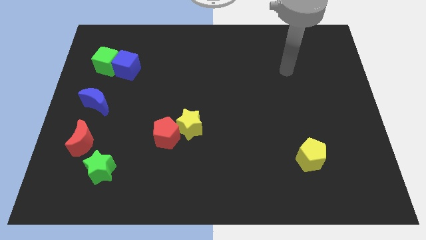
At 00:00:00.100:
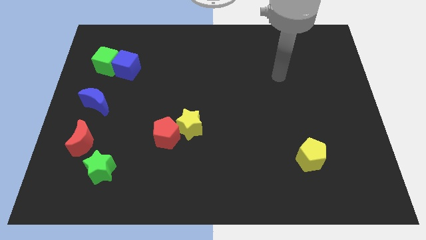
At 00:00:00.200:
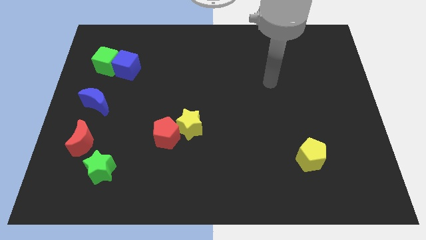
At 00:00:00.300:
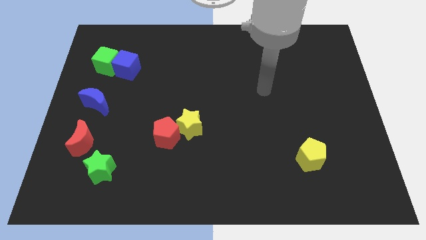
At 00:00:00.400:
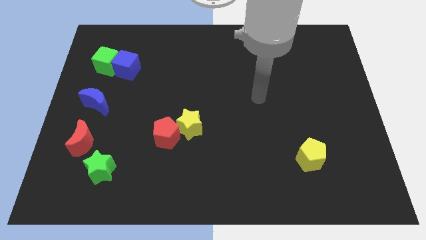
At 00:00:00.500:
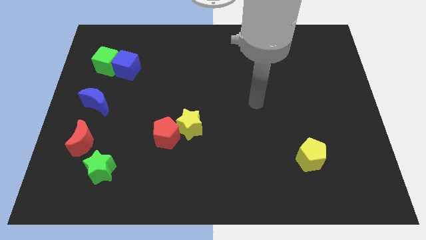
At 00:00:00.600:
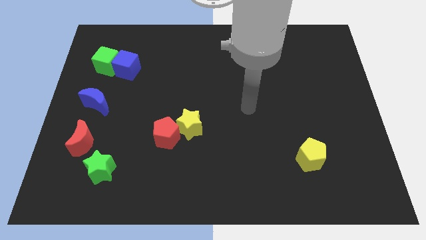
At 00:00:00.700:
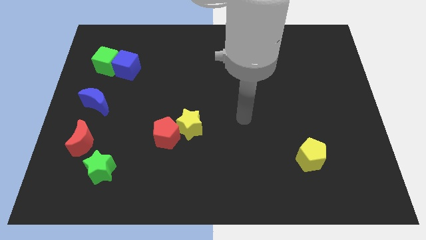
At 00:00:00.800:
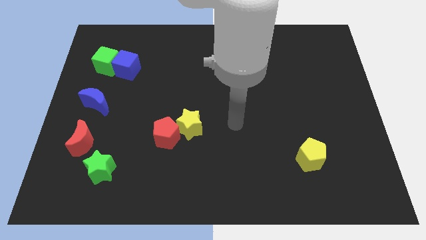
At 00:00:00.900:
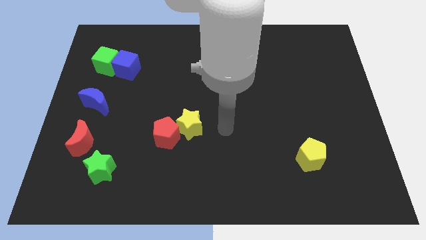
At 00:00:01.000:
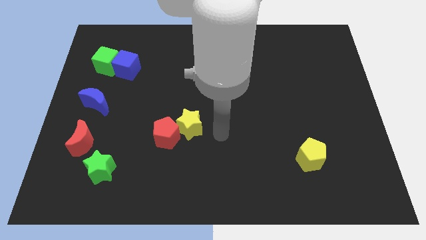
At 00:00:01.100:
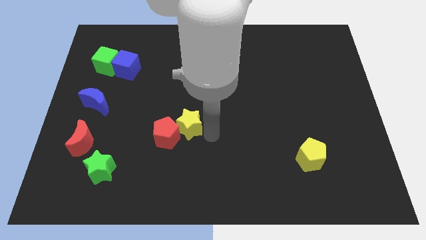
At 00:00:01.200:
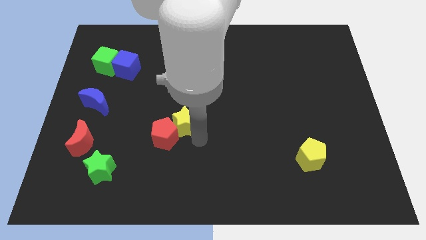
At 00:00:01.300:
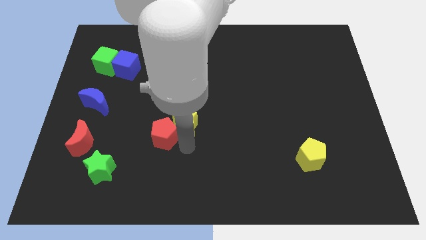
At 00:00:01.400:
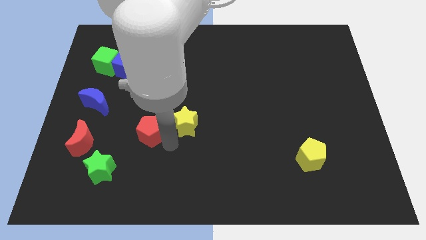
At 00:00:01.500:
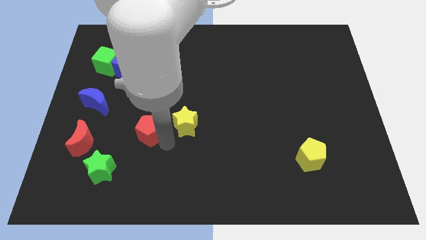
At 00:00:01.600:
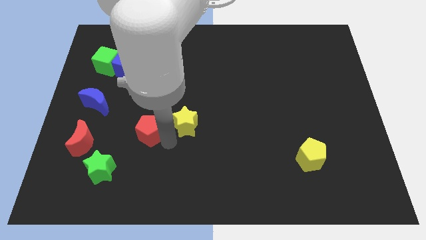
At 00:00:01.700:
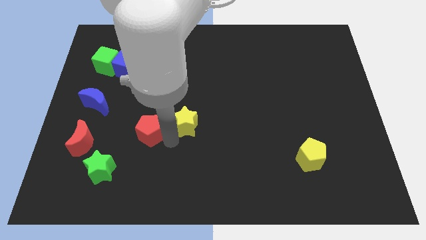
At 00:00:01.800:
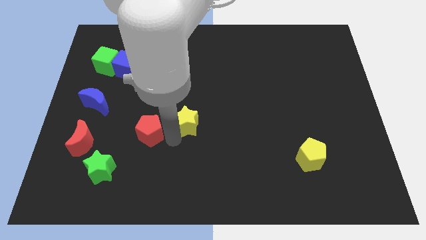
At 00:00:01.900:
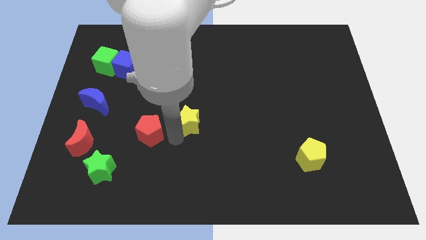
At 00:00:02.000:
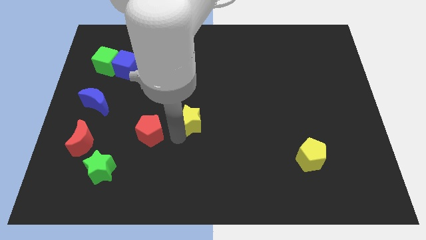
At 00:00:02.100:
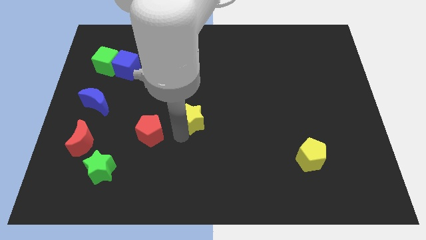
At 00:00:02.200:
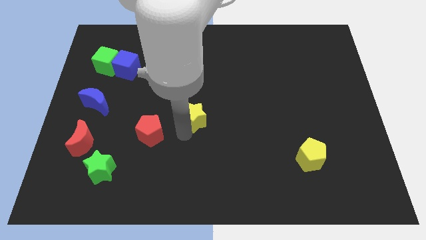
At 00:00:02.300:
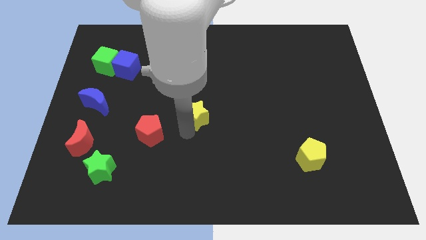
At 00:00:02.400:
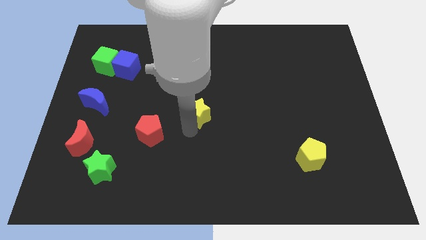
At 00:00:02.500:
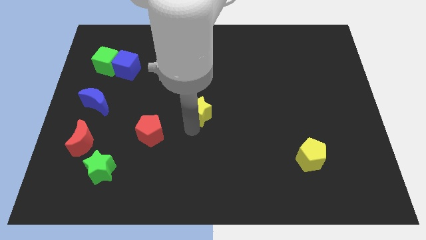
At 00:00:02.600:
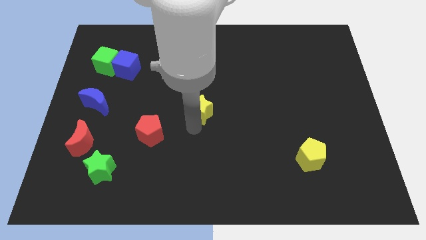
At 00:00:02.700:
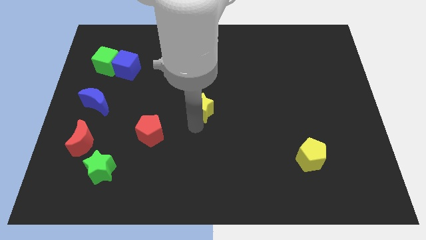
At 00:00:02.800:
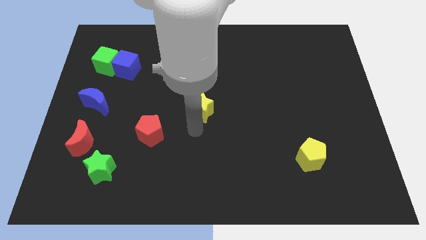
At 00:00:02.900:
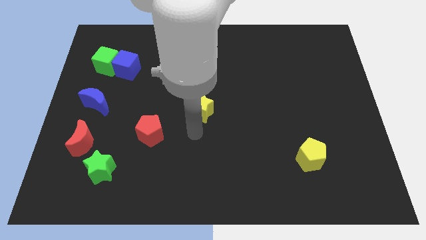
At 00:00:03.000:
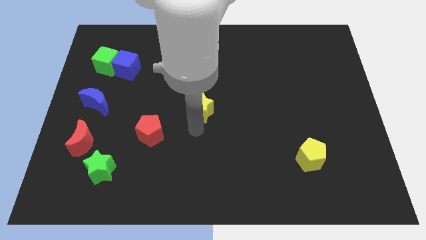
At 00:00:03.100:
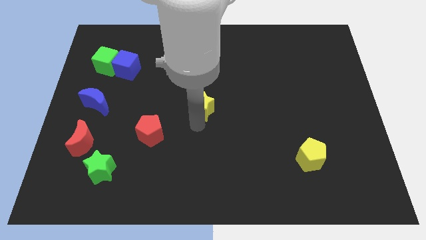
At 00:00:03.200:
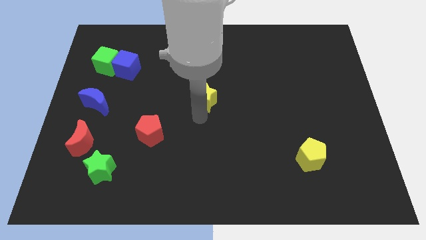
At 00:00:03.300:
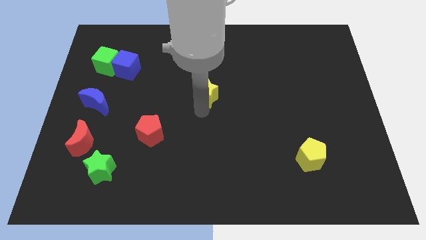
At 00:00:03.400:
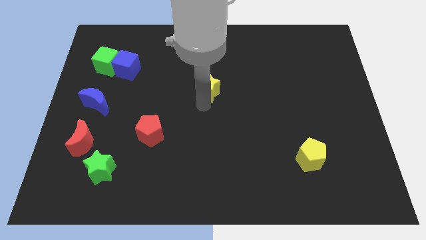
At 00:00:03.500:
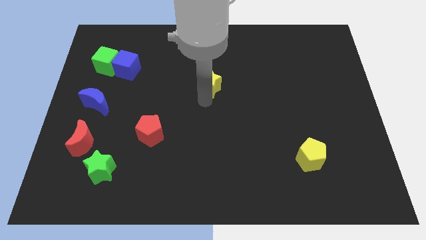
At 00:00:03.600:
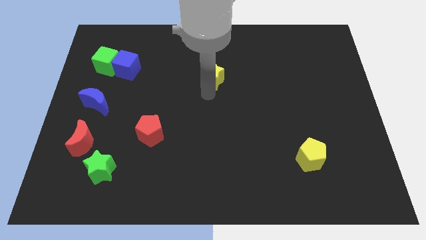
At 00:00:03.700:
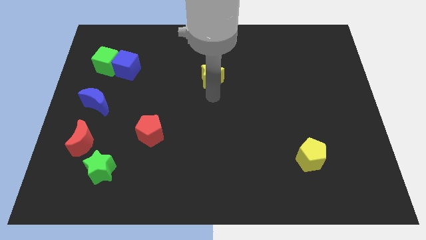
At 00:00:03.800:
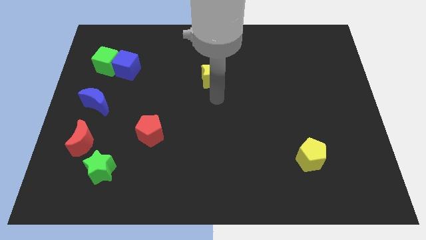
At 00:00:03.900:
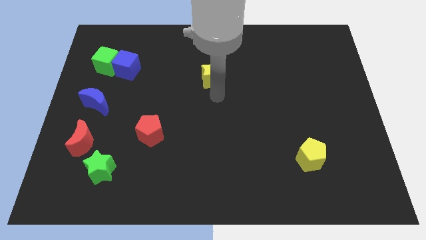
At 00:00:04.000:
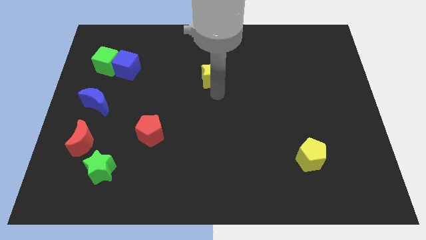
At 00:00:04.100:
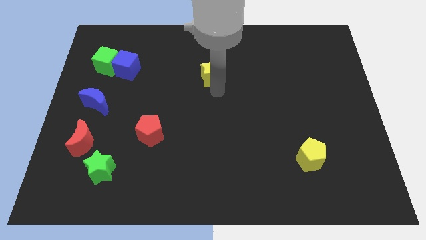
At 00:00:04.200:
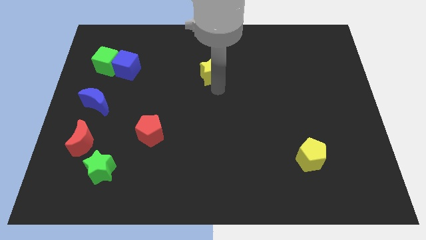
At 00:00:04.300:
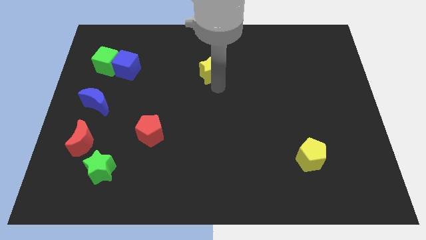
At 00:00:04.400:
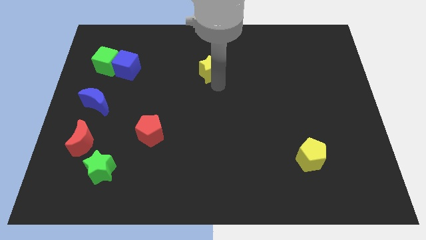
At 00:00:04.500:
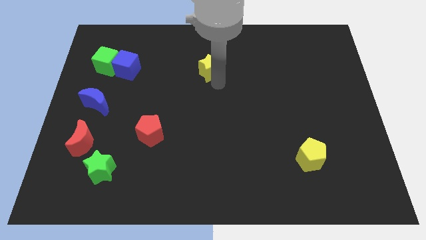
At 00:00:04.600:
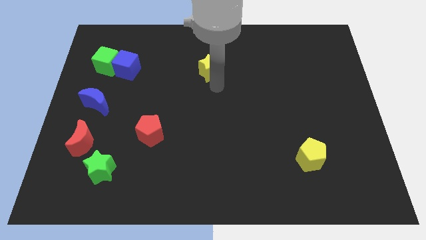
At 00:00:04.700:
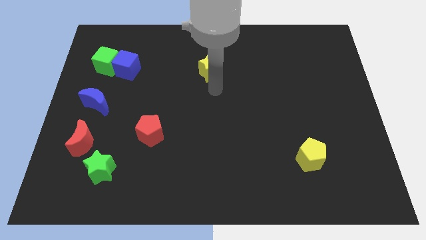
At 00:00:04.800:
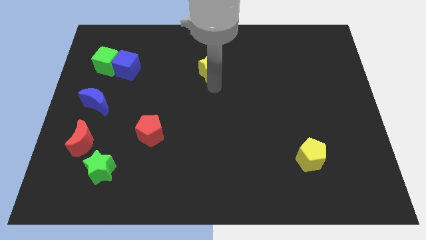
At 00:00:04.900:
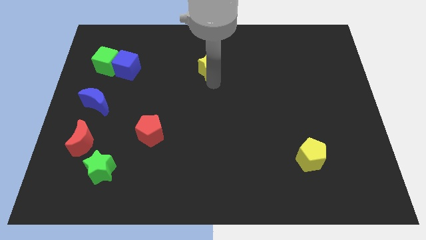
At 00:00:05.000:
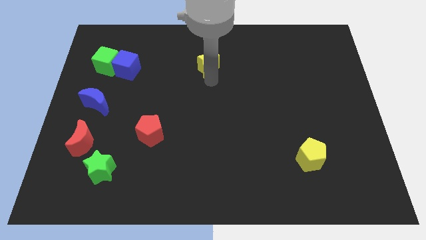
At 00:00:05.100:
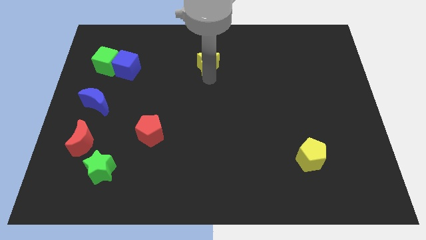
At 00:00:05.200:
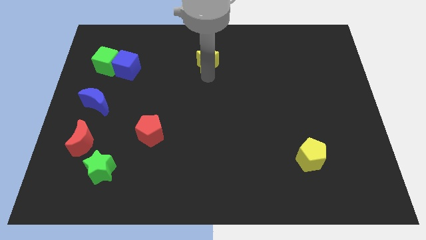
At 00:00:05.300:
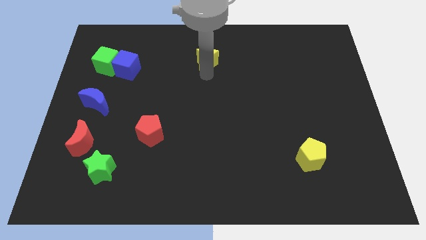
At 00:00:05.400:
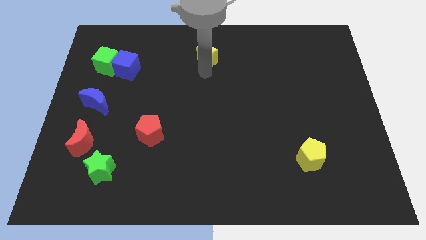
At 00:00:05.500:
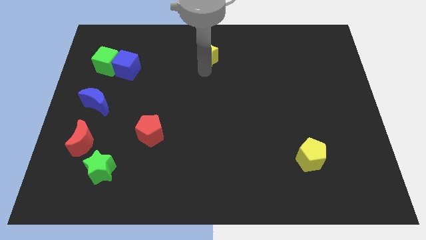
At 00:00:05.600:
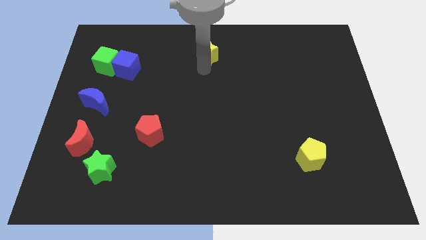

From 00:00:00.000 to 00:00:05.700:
put the yellow star to the top

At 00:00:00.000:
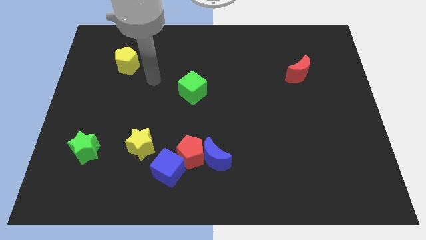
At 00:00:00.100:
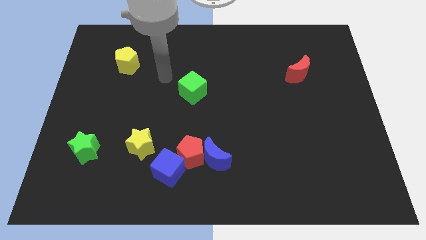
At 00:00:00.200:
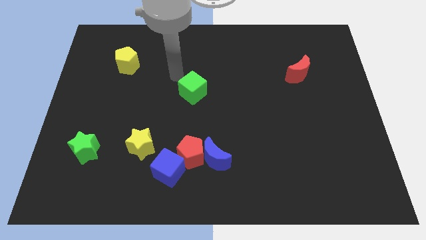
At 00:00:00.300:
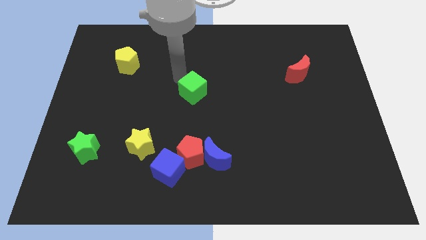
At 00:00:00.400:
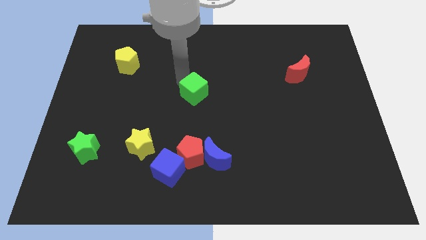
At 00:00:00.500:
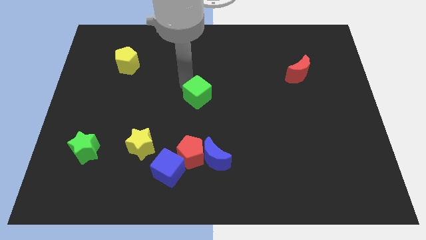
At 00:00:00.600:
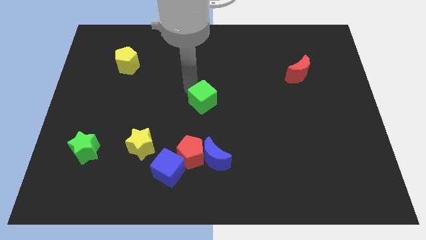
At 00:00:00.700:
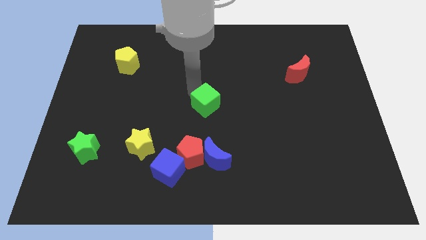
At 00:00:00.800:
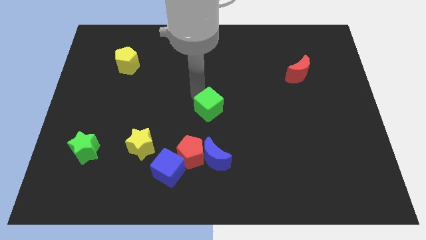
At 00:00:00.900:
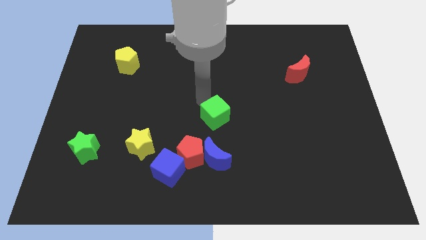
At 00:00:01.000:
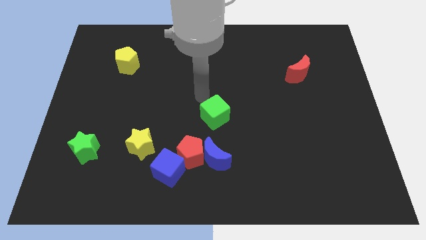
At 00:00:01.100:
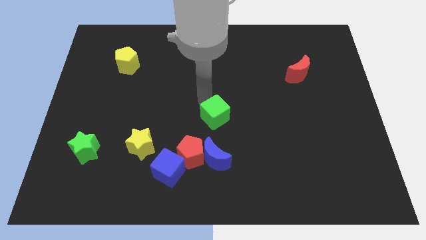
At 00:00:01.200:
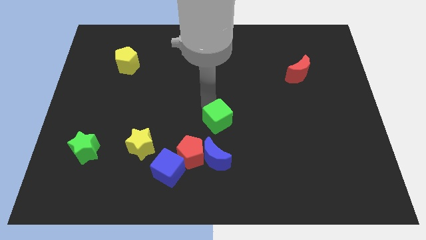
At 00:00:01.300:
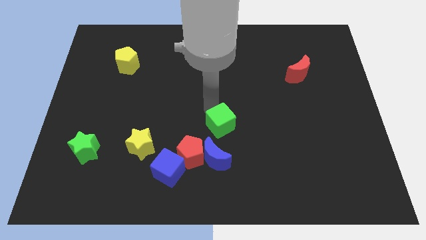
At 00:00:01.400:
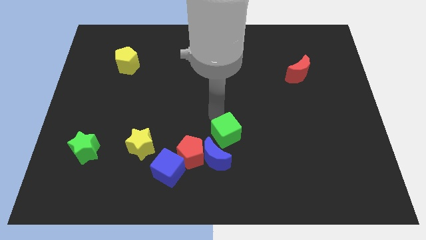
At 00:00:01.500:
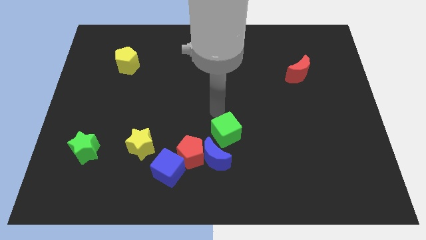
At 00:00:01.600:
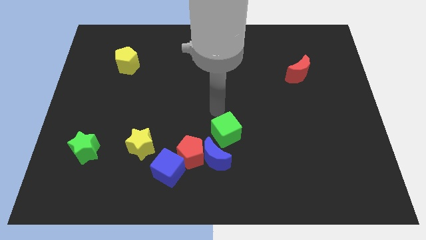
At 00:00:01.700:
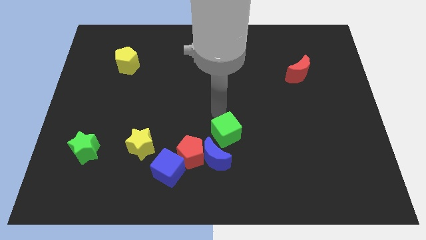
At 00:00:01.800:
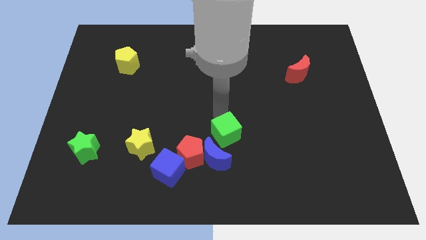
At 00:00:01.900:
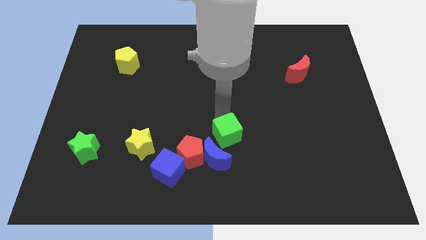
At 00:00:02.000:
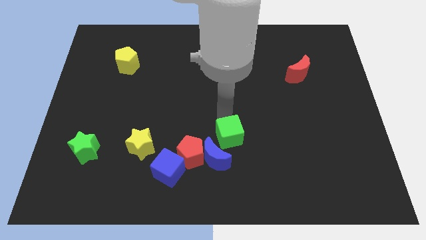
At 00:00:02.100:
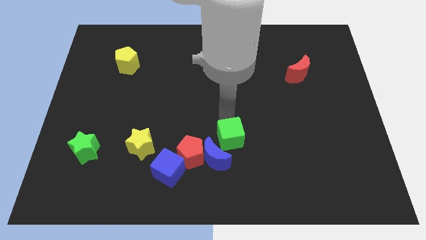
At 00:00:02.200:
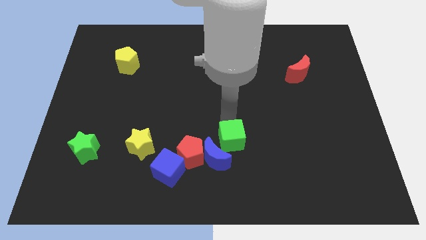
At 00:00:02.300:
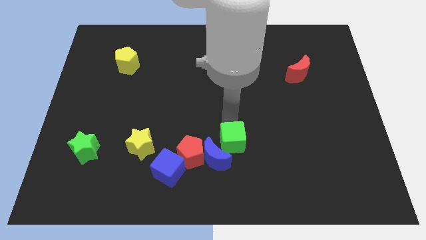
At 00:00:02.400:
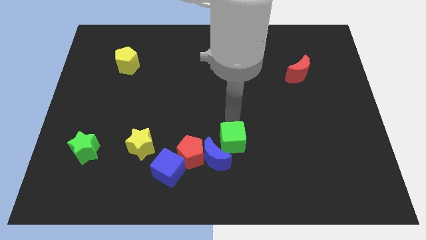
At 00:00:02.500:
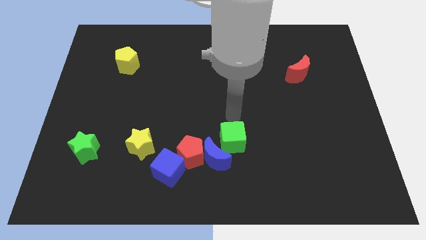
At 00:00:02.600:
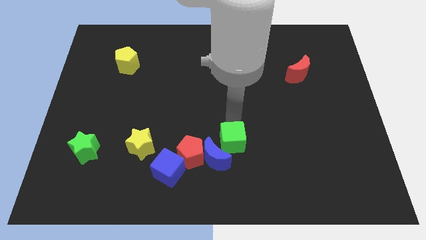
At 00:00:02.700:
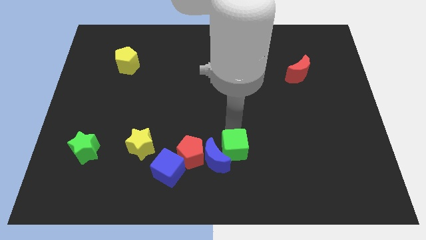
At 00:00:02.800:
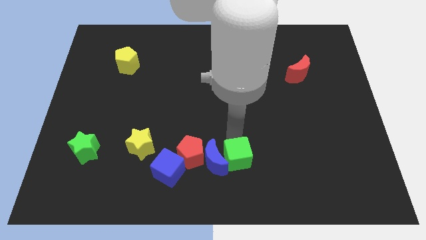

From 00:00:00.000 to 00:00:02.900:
push the green cube to the bottom
